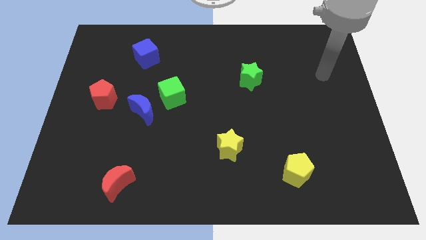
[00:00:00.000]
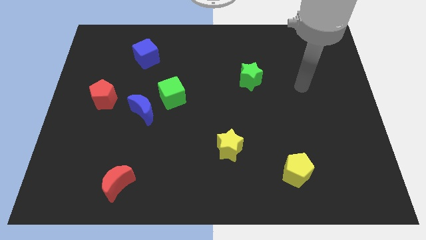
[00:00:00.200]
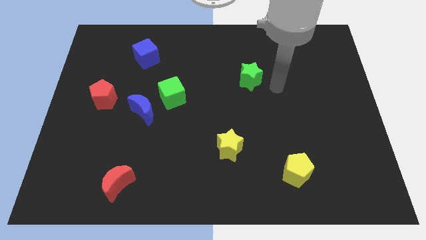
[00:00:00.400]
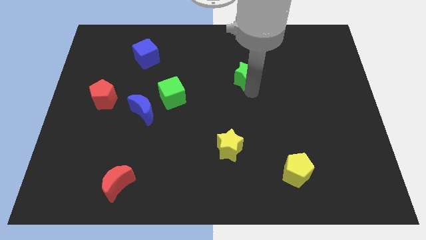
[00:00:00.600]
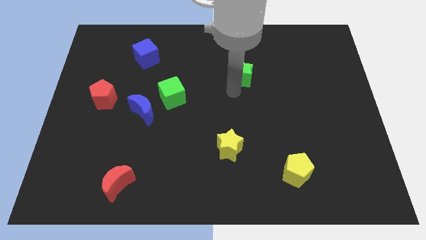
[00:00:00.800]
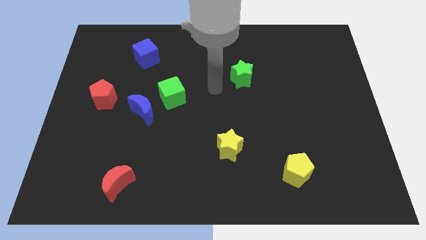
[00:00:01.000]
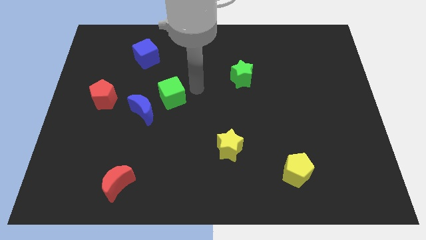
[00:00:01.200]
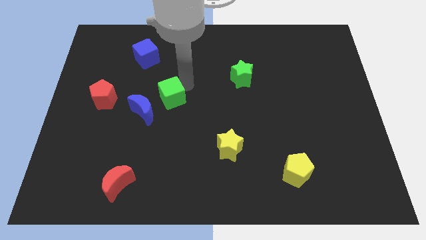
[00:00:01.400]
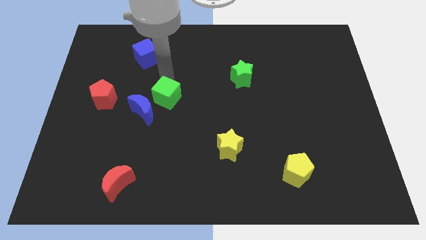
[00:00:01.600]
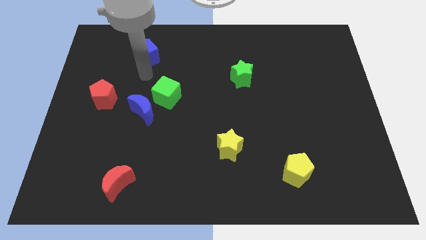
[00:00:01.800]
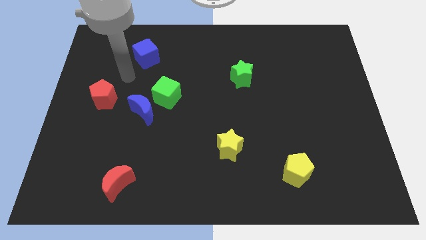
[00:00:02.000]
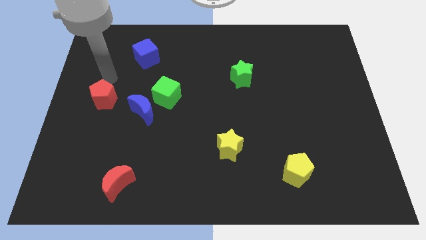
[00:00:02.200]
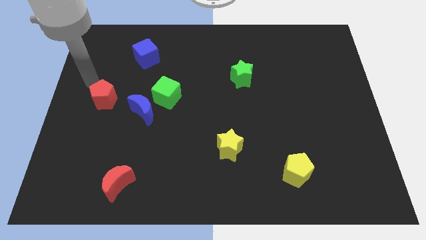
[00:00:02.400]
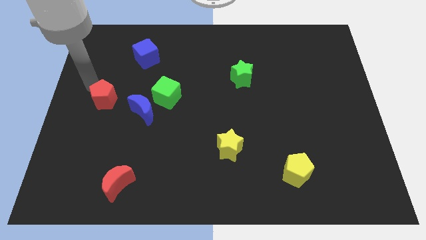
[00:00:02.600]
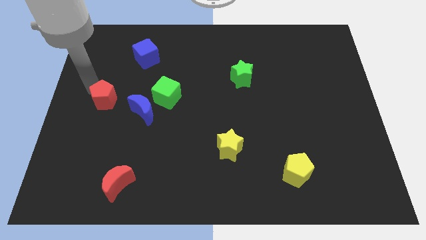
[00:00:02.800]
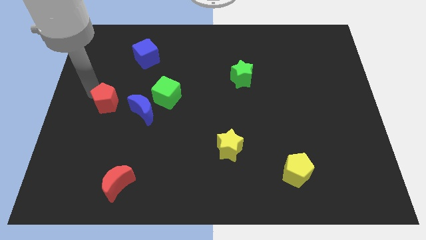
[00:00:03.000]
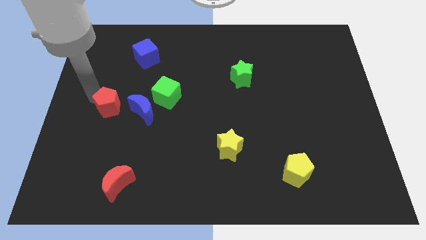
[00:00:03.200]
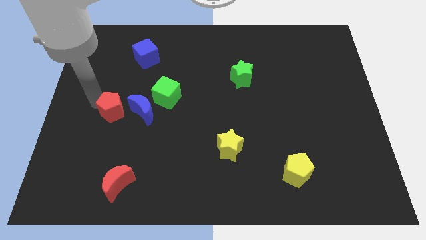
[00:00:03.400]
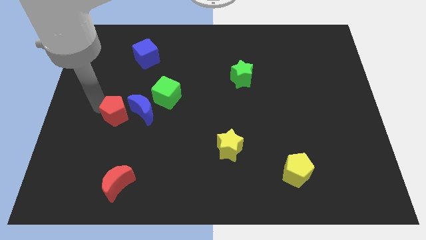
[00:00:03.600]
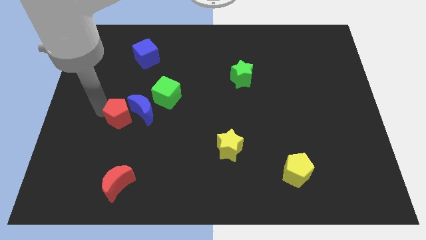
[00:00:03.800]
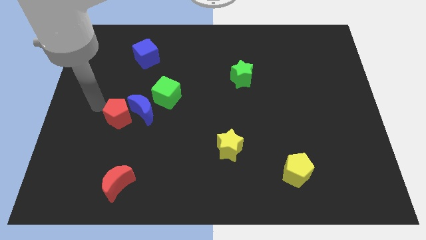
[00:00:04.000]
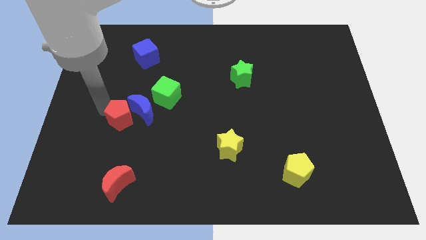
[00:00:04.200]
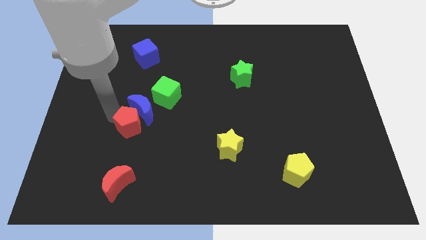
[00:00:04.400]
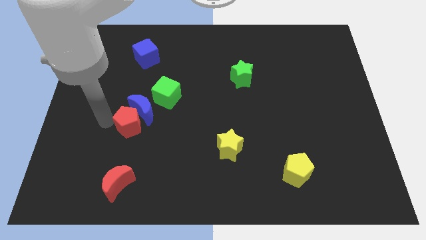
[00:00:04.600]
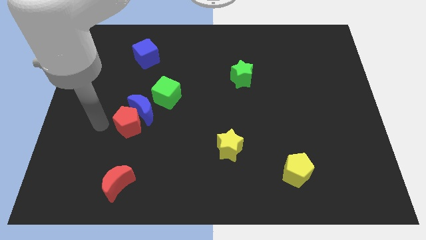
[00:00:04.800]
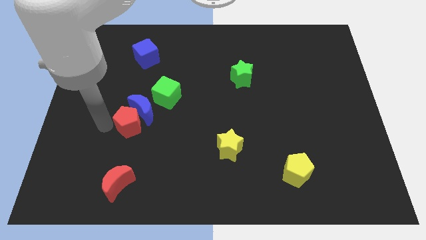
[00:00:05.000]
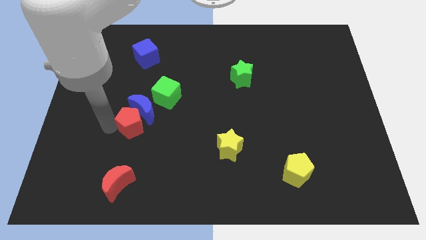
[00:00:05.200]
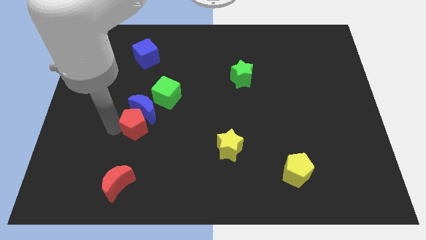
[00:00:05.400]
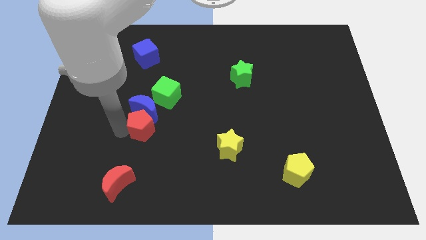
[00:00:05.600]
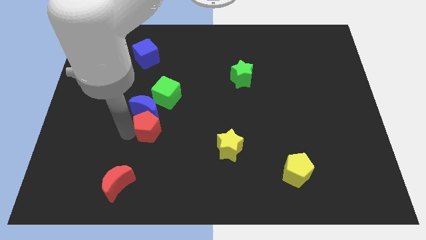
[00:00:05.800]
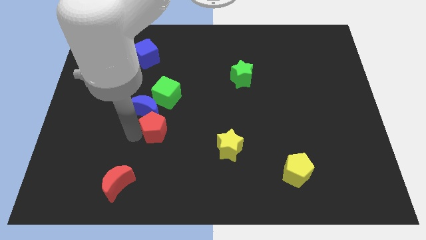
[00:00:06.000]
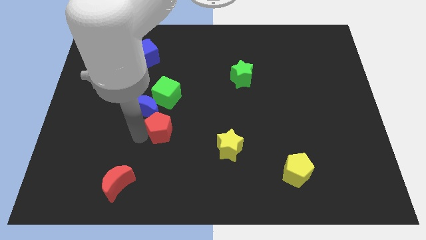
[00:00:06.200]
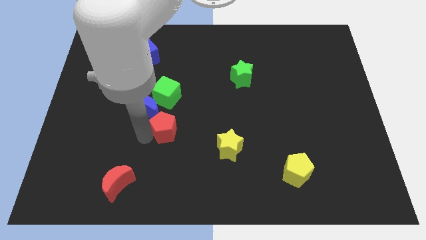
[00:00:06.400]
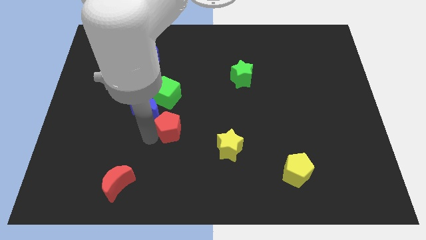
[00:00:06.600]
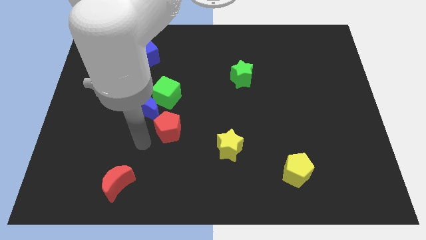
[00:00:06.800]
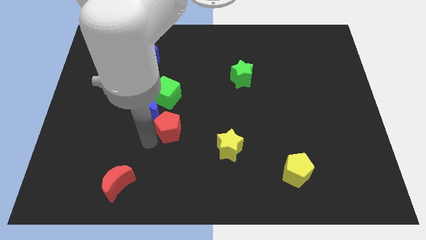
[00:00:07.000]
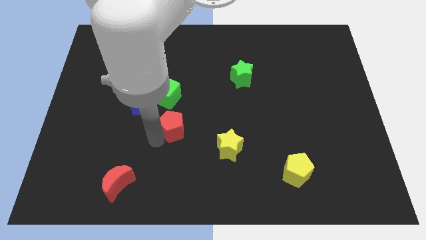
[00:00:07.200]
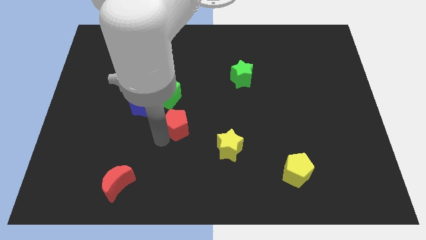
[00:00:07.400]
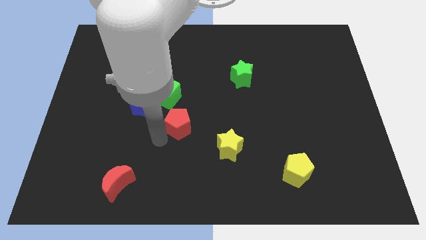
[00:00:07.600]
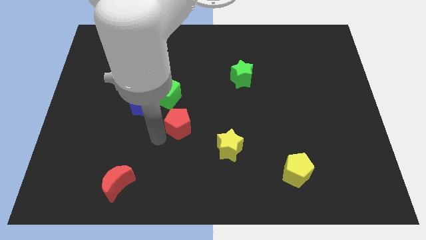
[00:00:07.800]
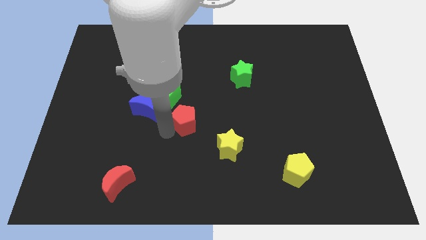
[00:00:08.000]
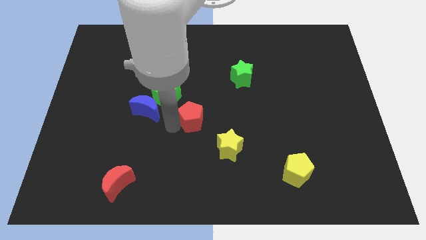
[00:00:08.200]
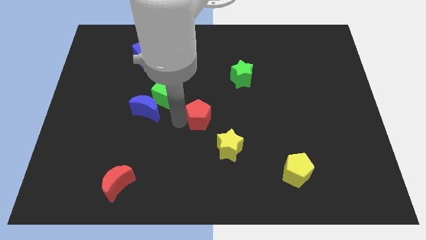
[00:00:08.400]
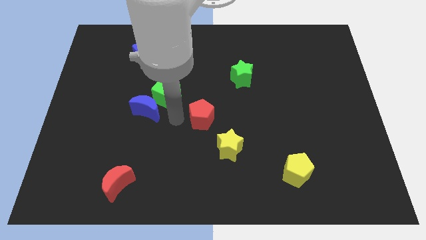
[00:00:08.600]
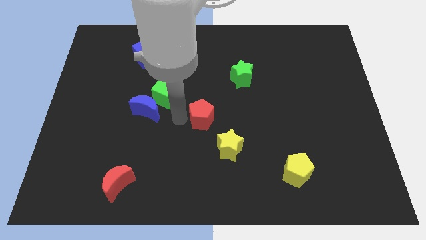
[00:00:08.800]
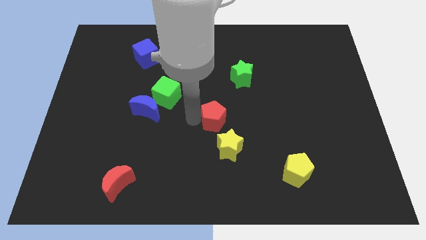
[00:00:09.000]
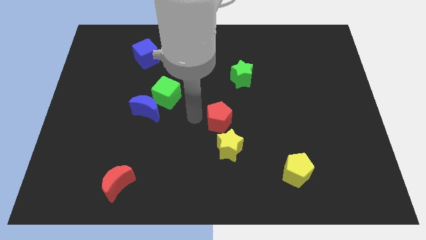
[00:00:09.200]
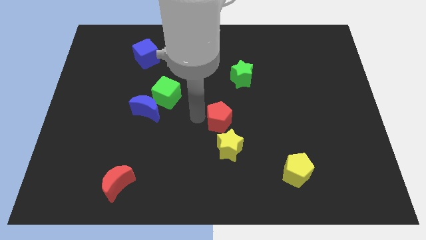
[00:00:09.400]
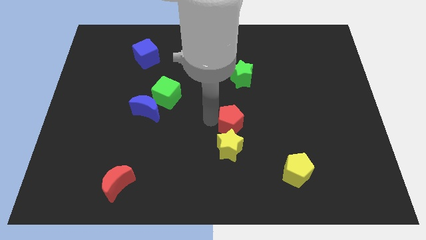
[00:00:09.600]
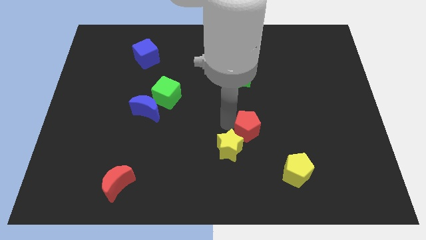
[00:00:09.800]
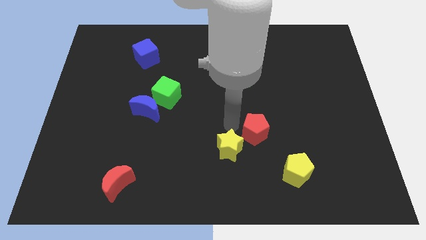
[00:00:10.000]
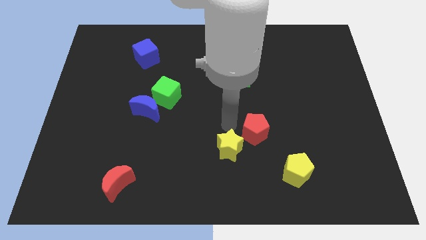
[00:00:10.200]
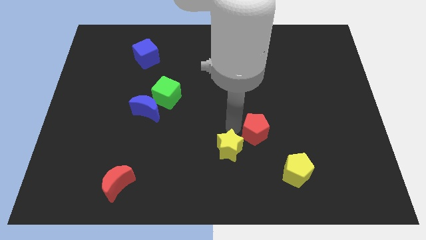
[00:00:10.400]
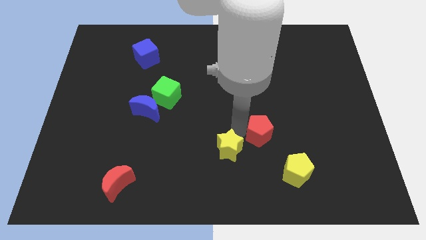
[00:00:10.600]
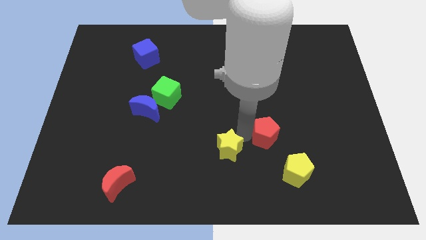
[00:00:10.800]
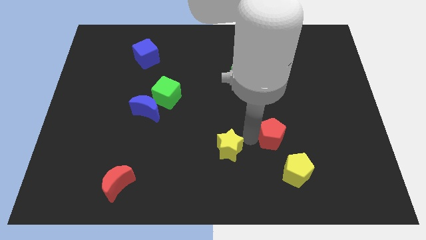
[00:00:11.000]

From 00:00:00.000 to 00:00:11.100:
push the red pentagon to the top side of the yellow pentagon
